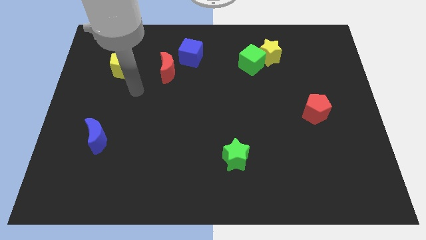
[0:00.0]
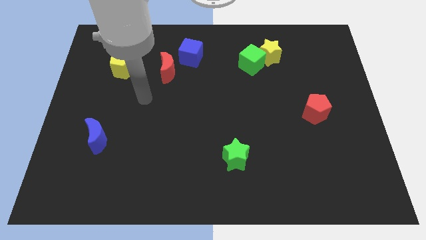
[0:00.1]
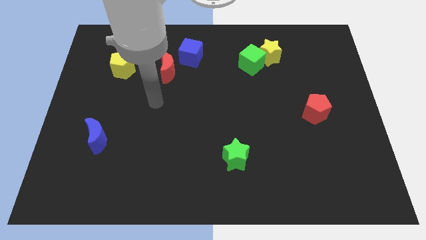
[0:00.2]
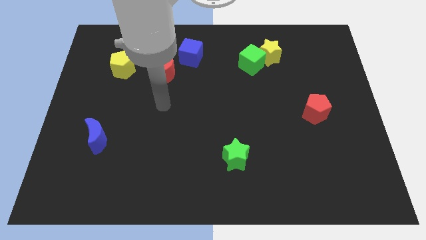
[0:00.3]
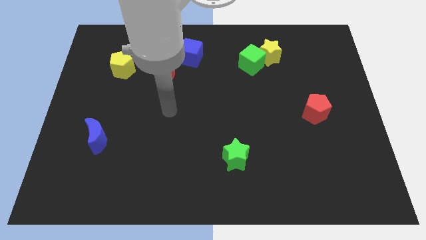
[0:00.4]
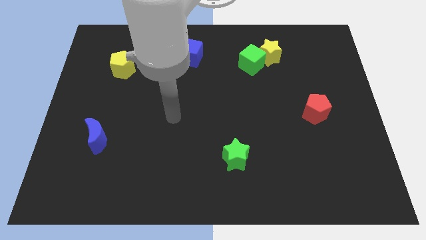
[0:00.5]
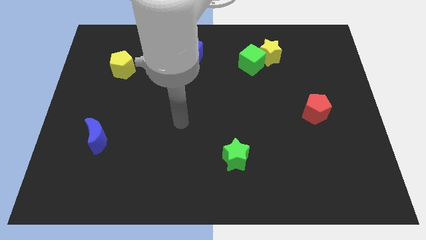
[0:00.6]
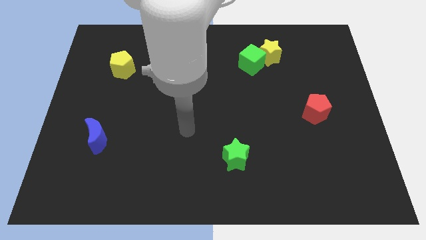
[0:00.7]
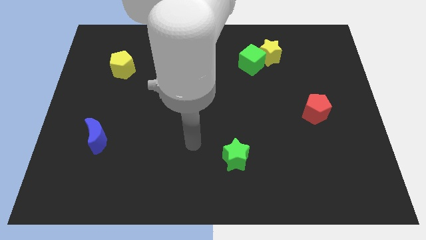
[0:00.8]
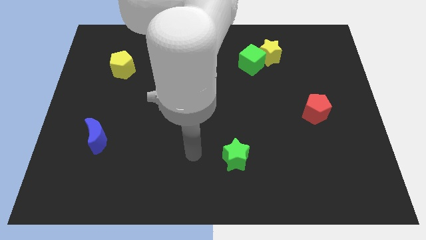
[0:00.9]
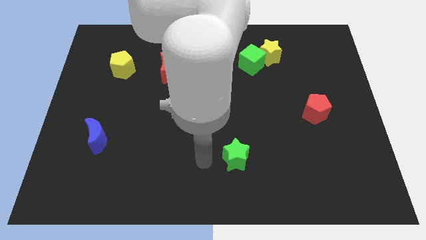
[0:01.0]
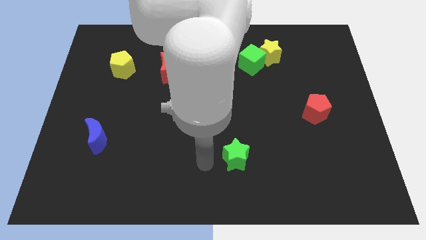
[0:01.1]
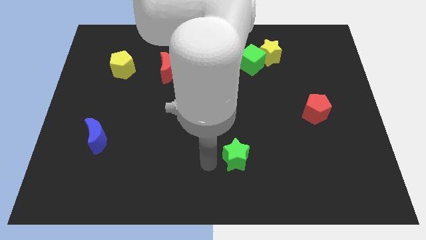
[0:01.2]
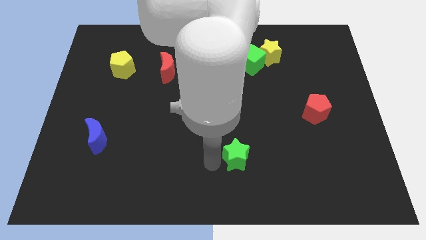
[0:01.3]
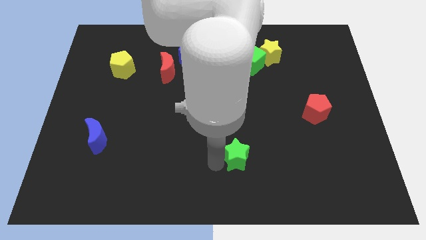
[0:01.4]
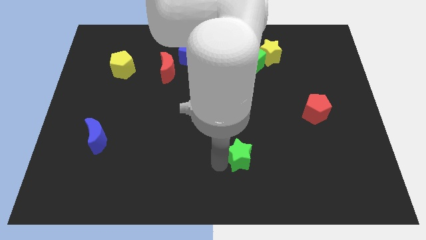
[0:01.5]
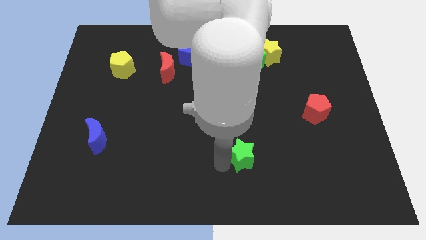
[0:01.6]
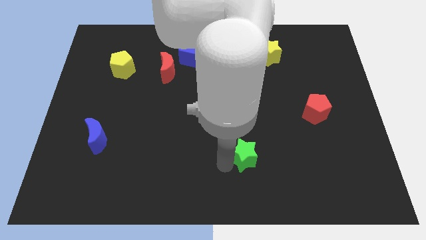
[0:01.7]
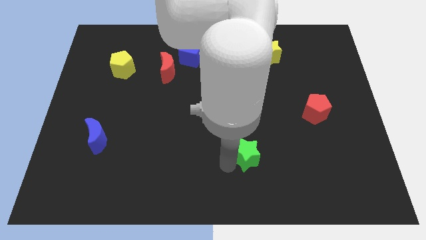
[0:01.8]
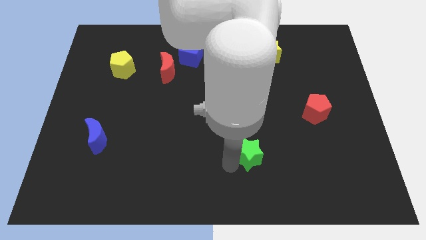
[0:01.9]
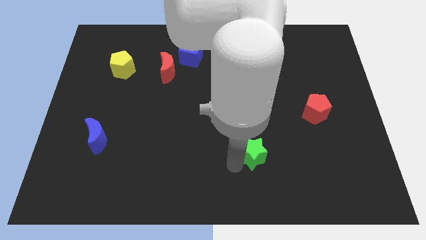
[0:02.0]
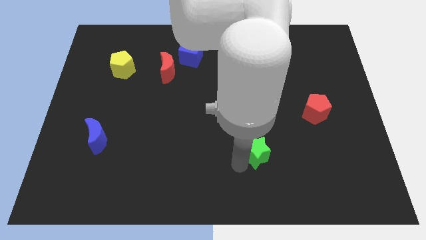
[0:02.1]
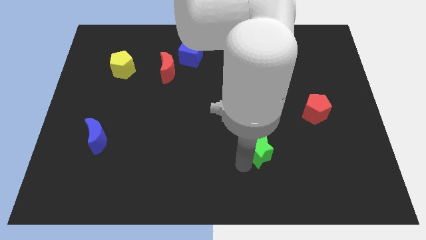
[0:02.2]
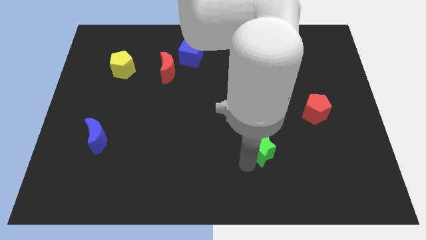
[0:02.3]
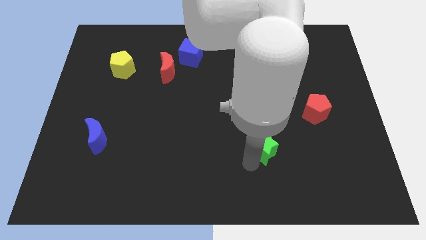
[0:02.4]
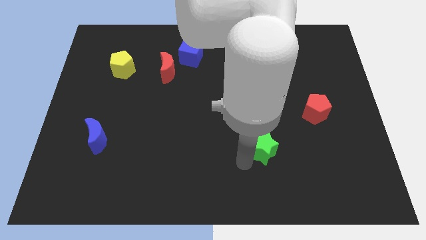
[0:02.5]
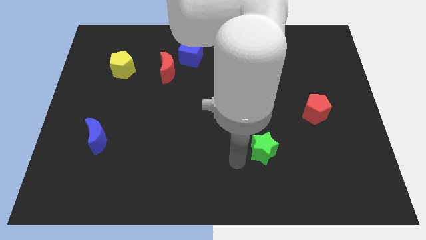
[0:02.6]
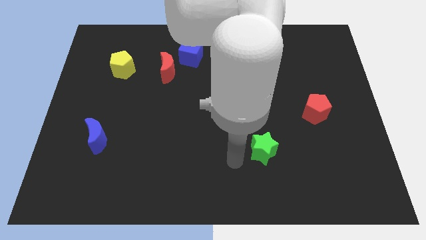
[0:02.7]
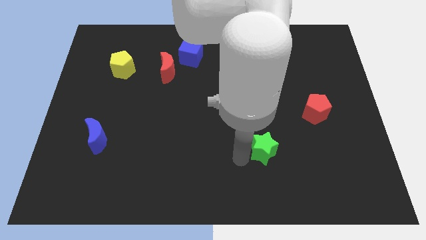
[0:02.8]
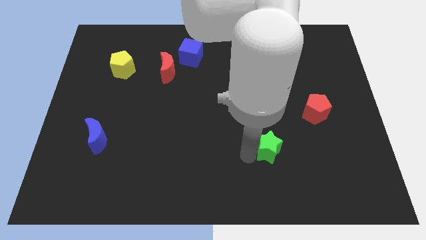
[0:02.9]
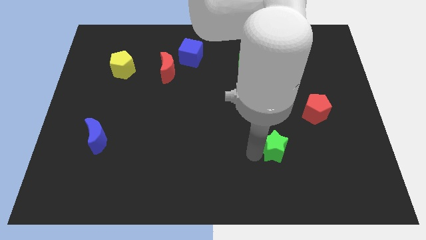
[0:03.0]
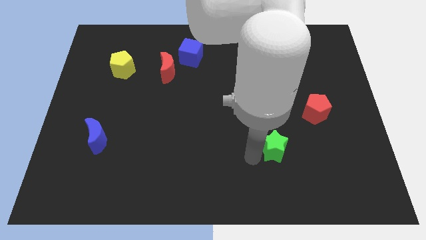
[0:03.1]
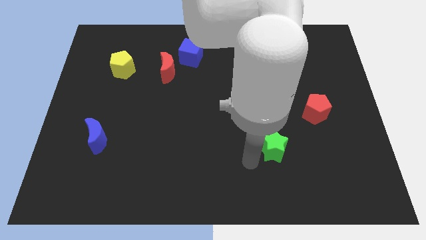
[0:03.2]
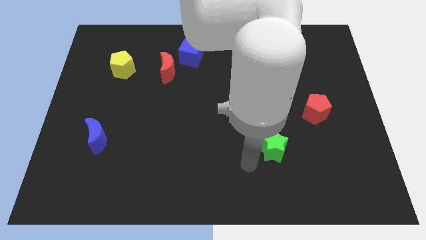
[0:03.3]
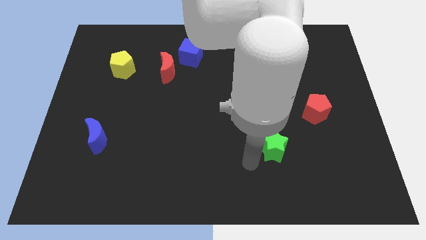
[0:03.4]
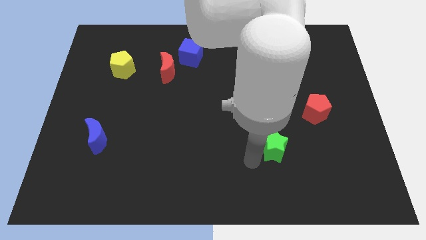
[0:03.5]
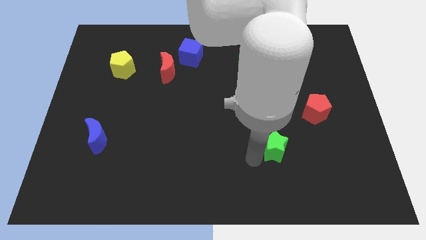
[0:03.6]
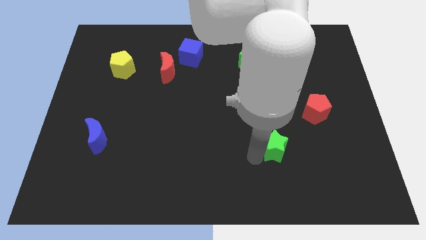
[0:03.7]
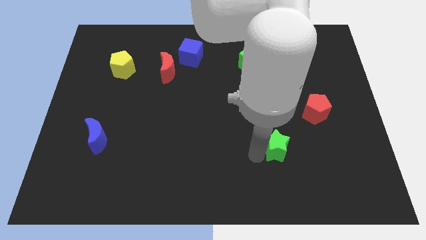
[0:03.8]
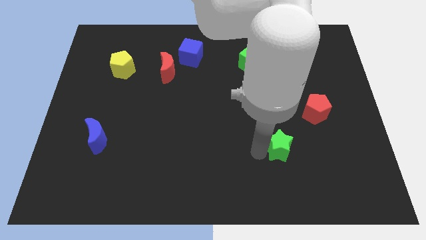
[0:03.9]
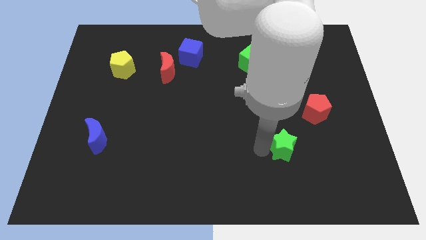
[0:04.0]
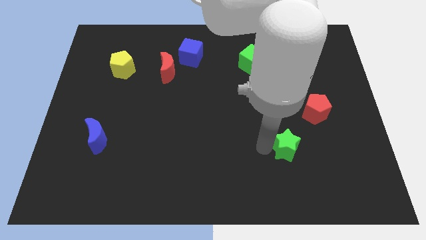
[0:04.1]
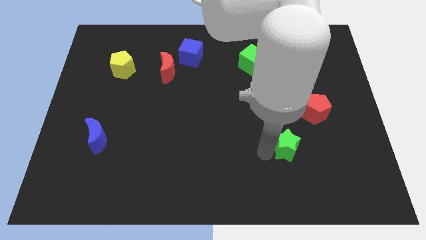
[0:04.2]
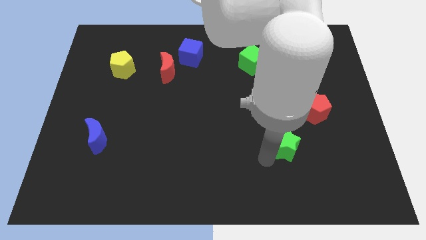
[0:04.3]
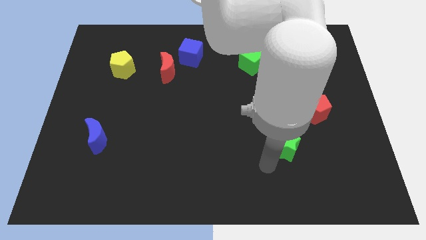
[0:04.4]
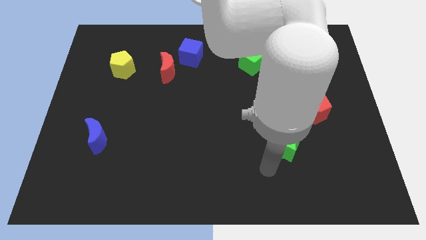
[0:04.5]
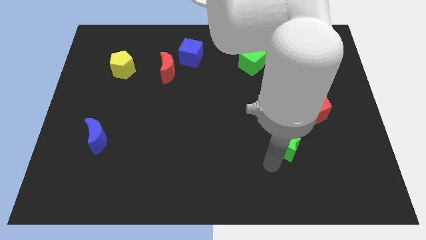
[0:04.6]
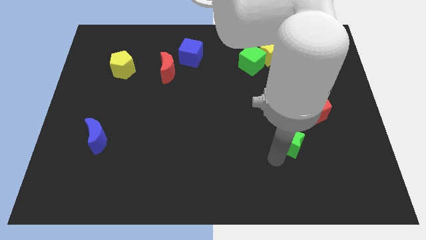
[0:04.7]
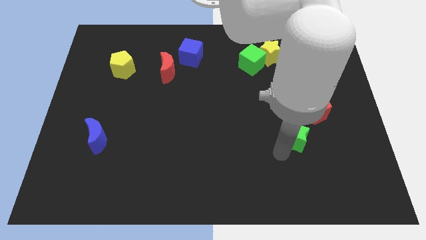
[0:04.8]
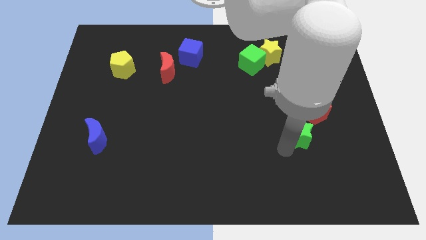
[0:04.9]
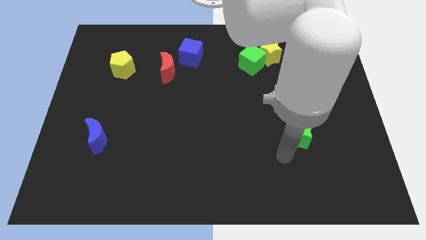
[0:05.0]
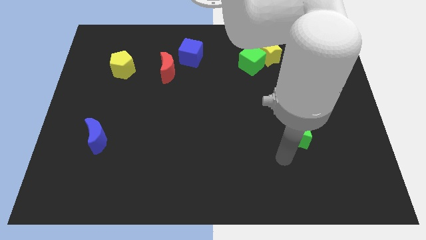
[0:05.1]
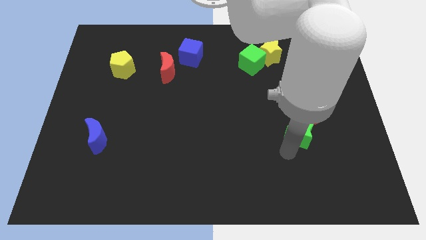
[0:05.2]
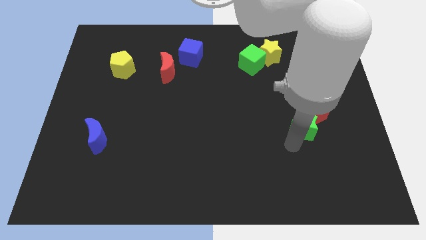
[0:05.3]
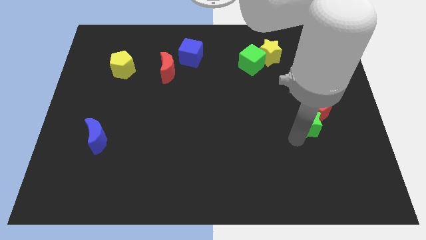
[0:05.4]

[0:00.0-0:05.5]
push the green star next to the red pentagon

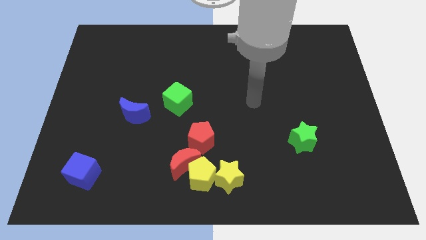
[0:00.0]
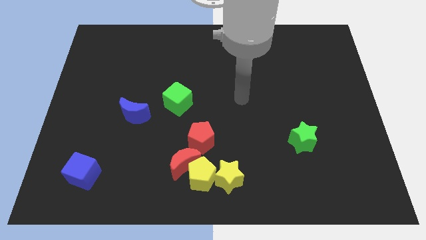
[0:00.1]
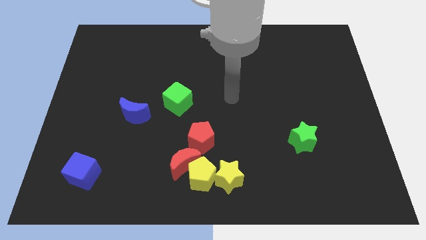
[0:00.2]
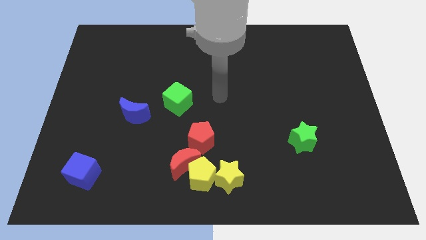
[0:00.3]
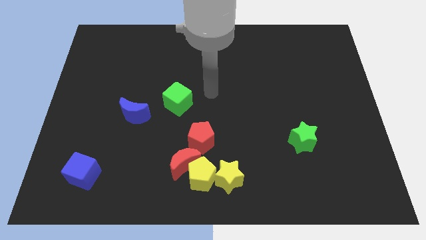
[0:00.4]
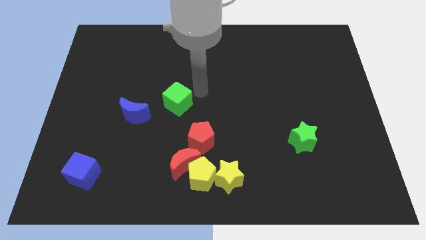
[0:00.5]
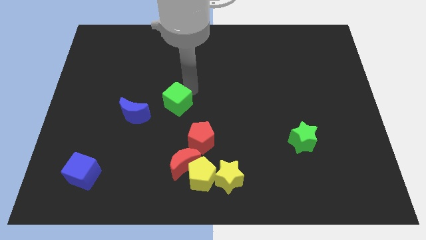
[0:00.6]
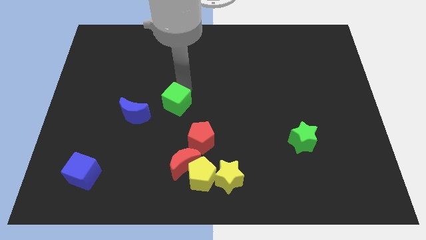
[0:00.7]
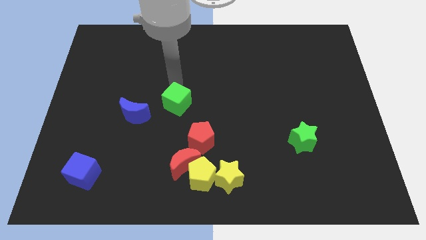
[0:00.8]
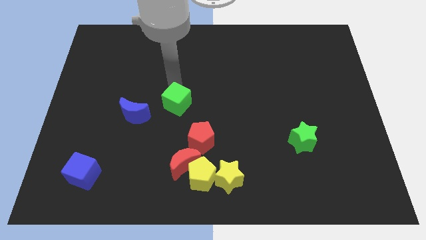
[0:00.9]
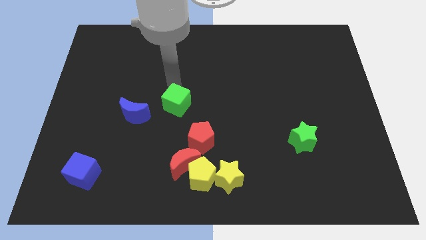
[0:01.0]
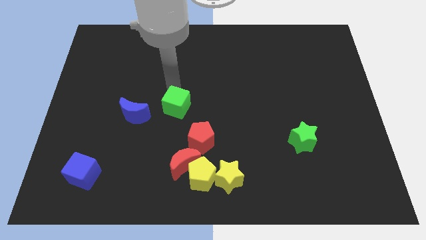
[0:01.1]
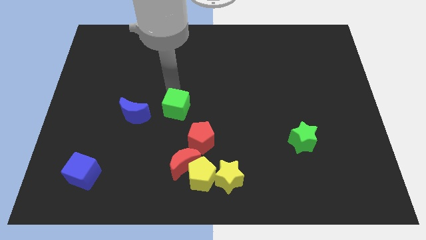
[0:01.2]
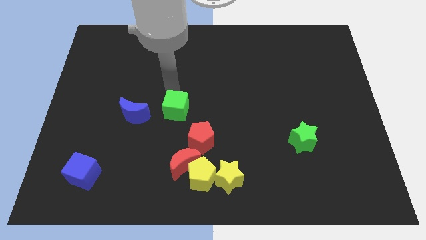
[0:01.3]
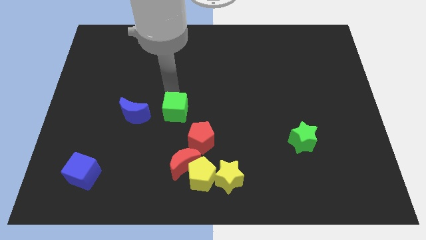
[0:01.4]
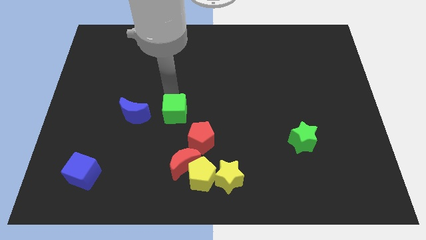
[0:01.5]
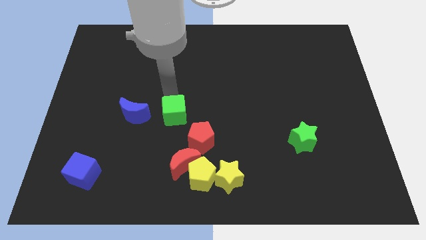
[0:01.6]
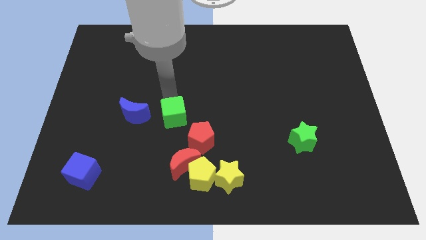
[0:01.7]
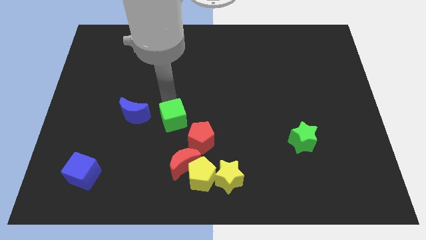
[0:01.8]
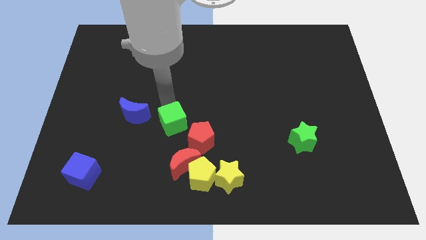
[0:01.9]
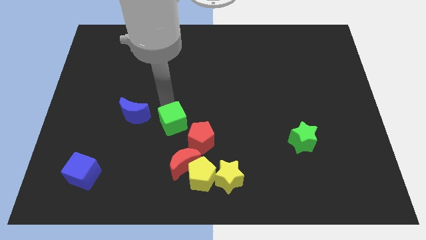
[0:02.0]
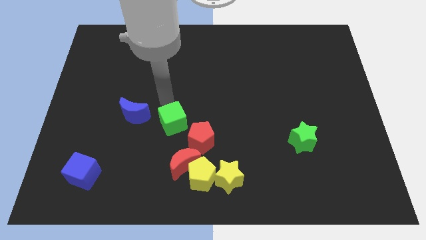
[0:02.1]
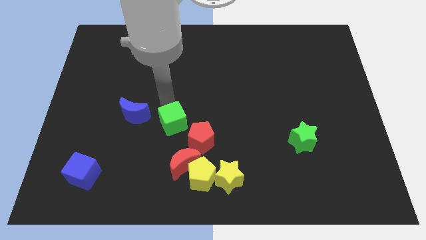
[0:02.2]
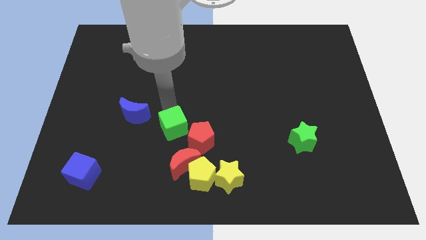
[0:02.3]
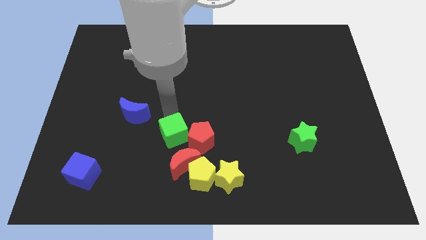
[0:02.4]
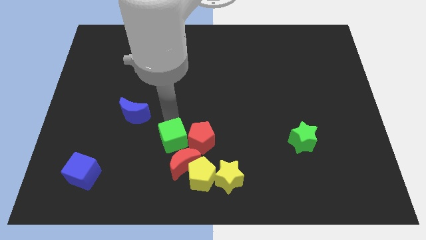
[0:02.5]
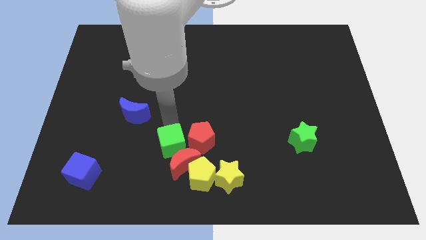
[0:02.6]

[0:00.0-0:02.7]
push the green cube close to the red moon
